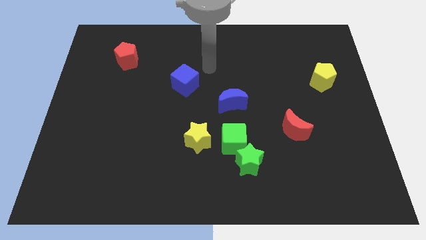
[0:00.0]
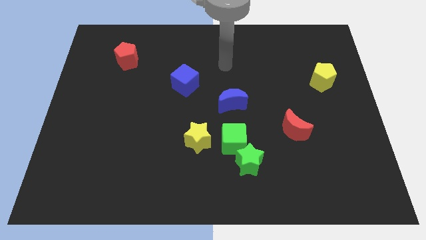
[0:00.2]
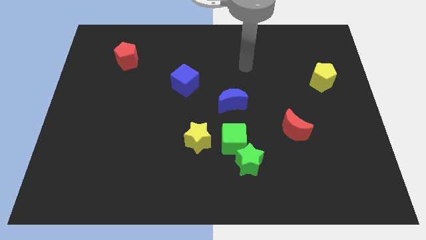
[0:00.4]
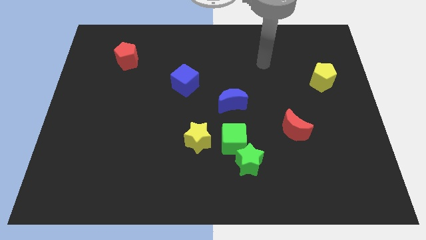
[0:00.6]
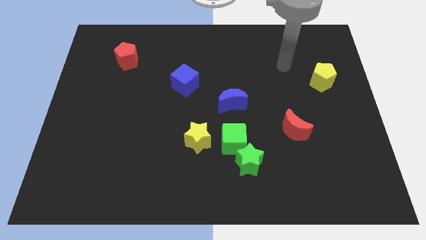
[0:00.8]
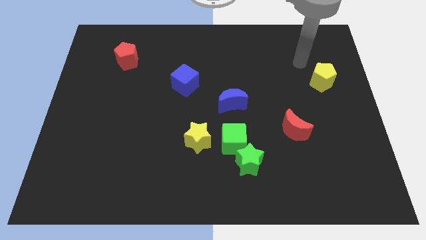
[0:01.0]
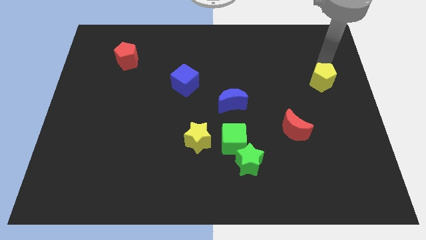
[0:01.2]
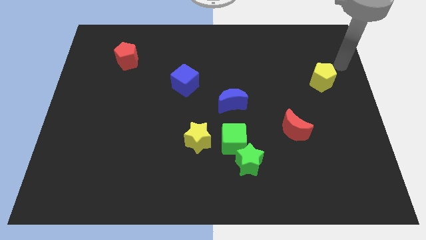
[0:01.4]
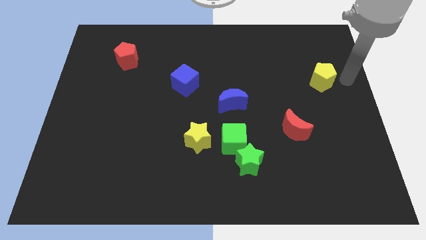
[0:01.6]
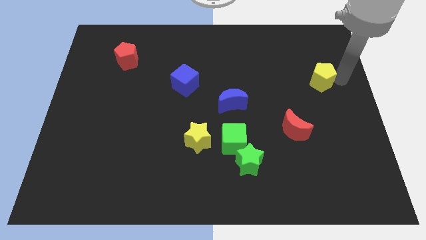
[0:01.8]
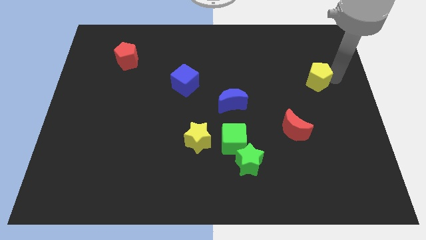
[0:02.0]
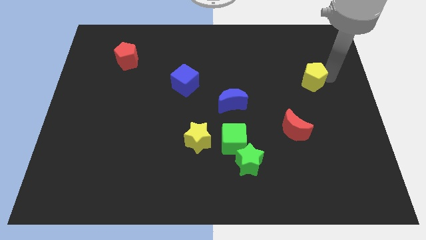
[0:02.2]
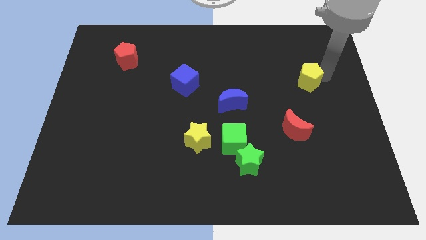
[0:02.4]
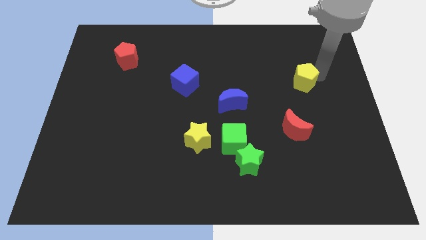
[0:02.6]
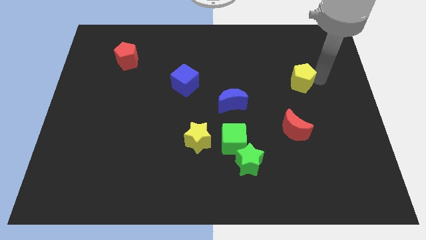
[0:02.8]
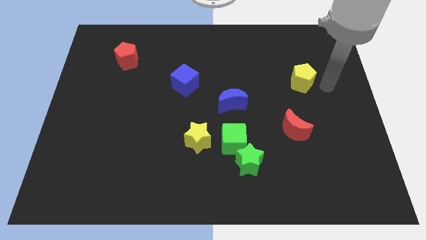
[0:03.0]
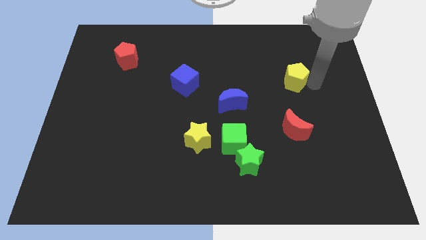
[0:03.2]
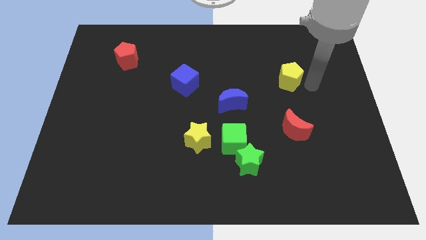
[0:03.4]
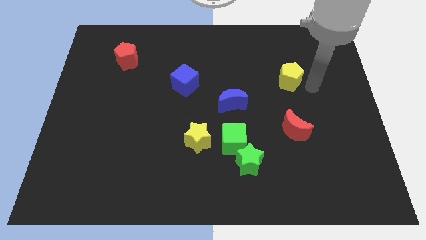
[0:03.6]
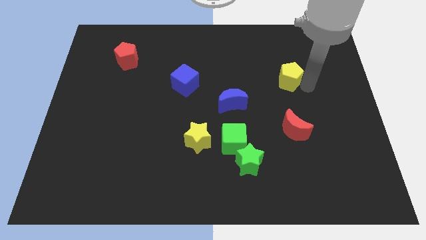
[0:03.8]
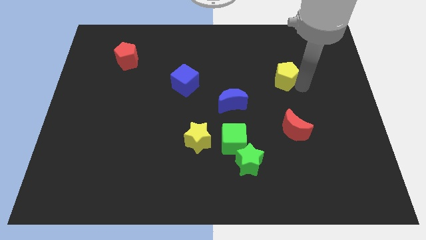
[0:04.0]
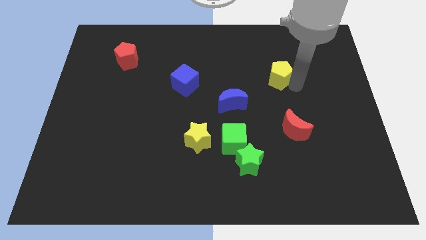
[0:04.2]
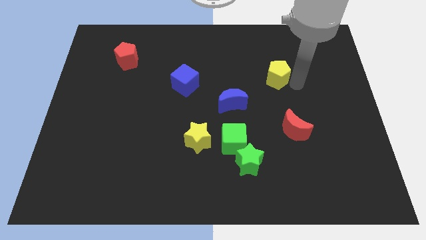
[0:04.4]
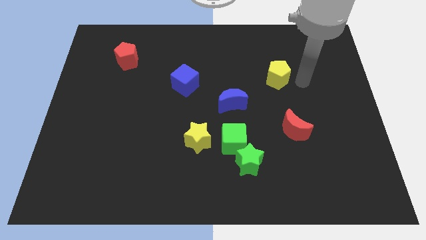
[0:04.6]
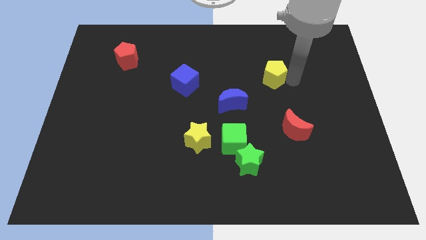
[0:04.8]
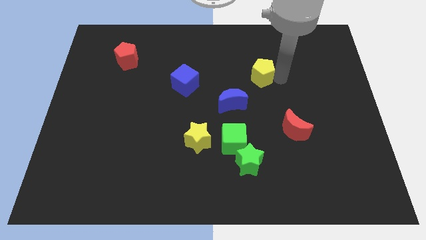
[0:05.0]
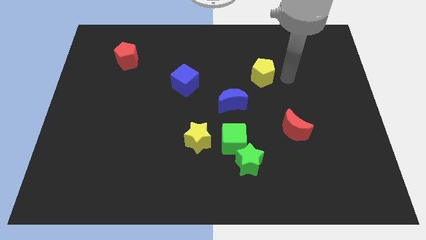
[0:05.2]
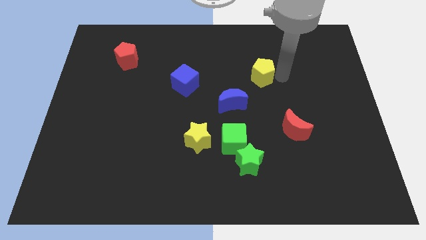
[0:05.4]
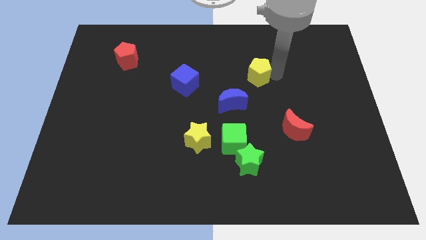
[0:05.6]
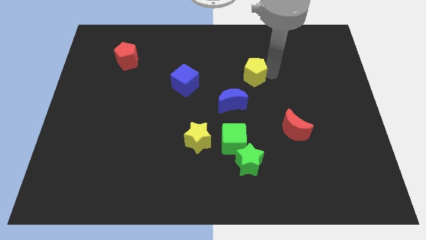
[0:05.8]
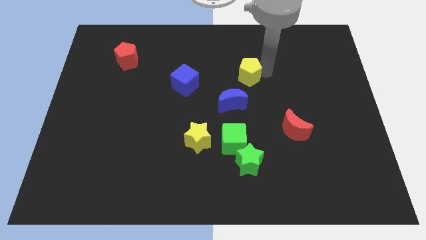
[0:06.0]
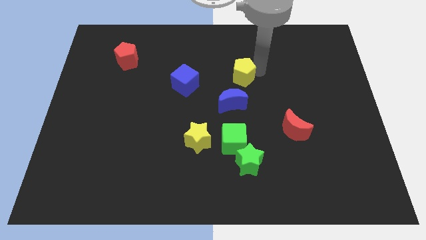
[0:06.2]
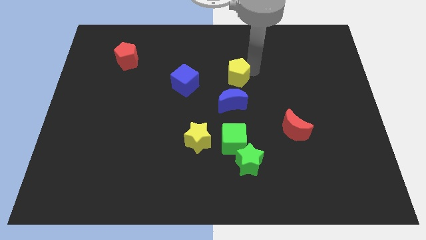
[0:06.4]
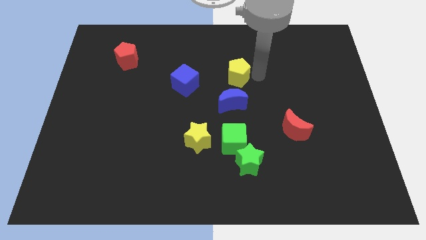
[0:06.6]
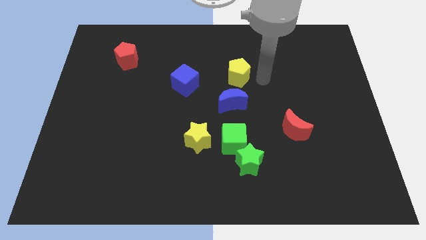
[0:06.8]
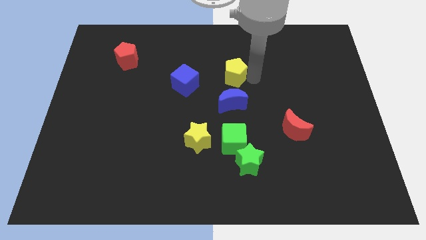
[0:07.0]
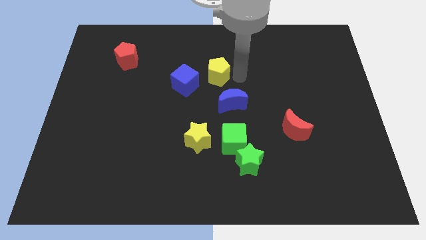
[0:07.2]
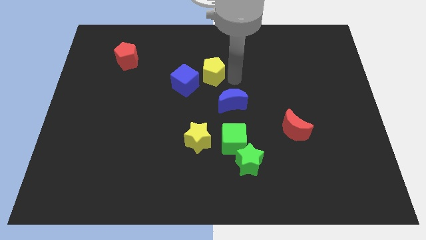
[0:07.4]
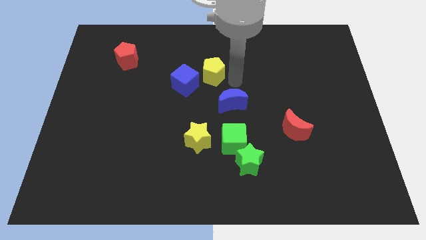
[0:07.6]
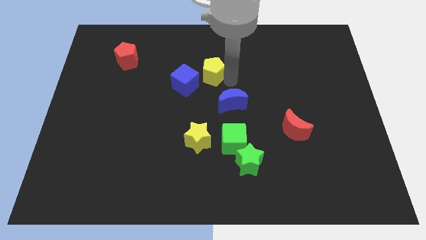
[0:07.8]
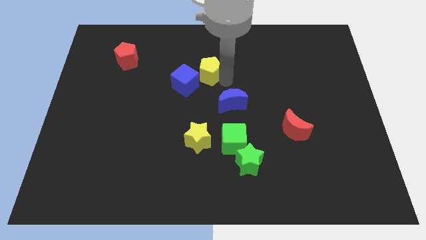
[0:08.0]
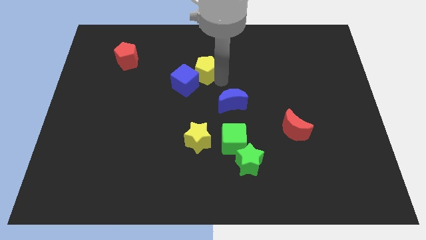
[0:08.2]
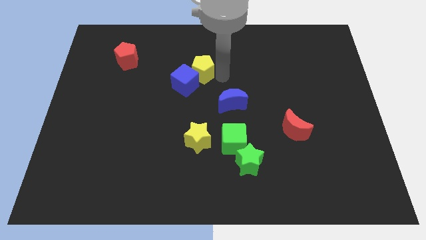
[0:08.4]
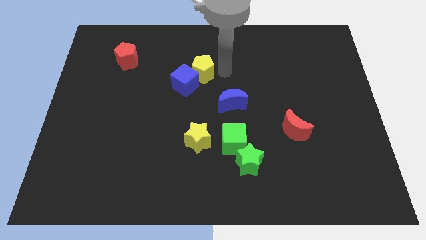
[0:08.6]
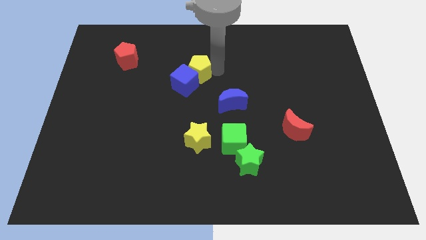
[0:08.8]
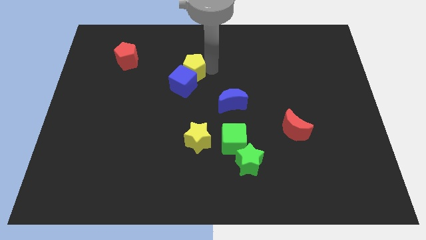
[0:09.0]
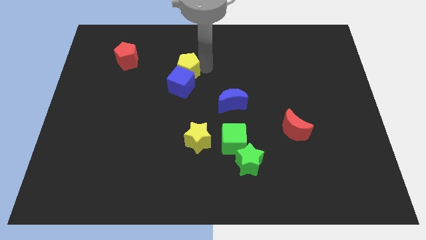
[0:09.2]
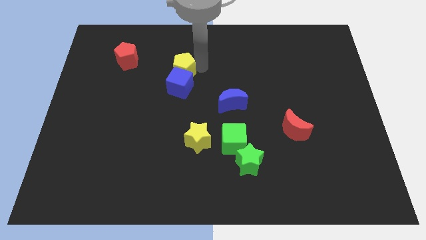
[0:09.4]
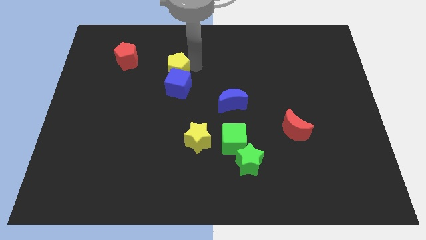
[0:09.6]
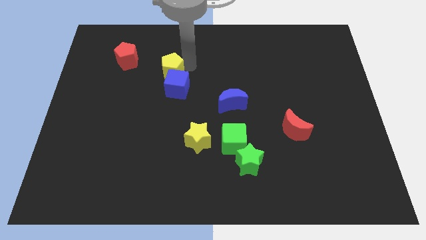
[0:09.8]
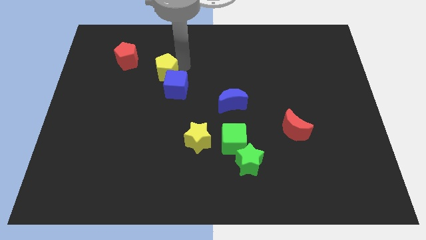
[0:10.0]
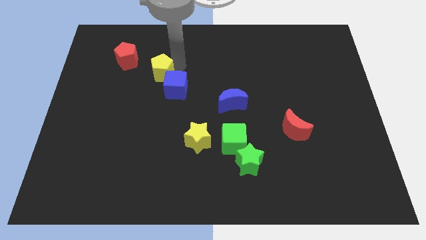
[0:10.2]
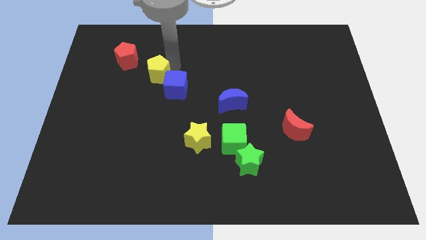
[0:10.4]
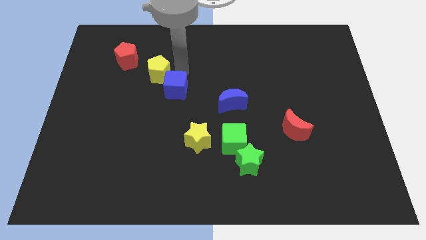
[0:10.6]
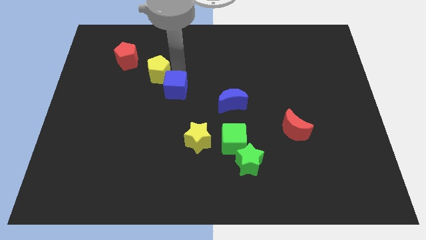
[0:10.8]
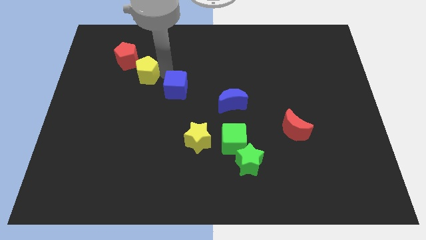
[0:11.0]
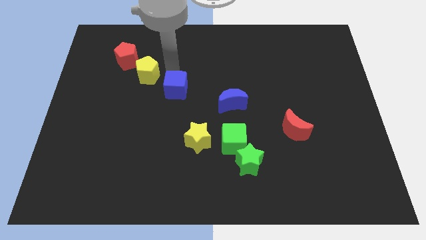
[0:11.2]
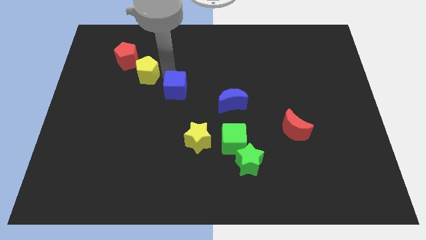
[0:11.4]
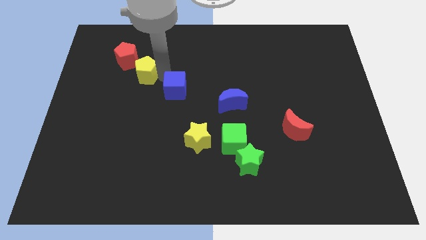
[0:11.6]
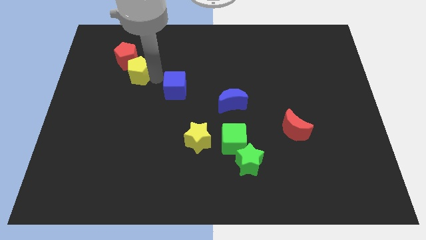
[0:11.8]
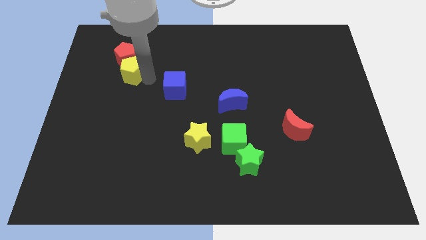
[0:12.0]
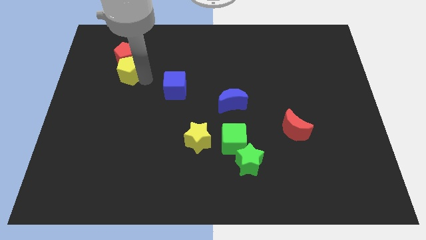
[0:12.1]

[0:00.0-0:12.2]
push the yellow pentagon diagonally down and to the left of the red pentagon
